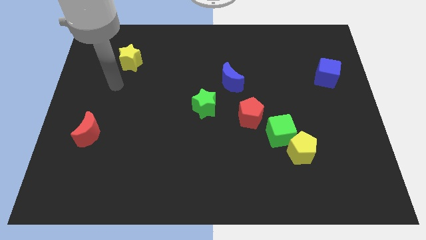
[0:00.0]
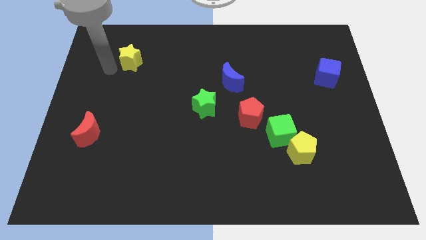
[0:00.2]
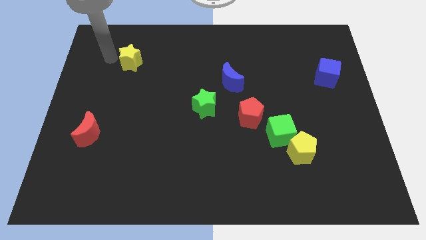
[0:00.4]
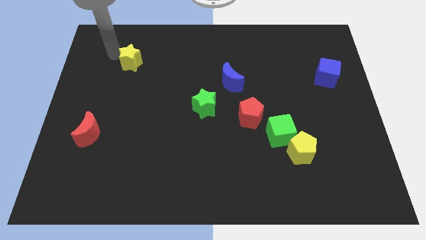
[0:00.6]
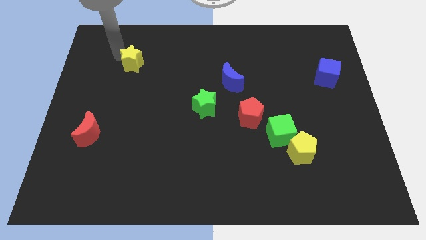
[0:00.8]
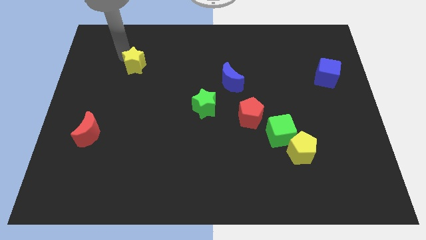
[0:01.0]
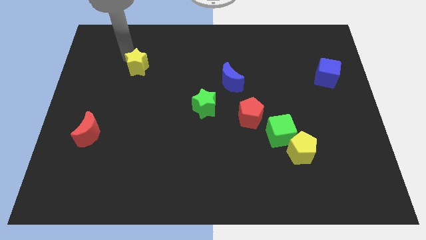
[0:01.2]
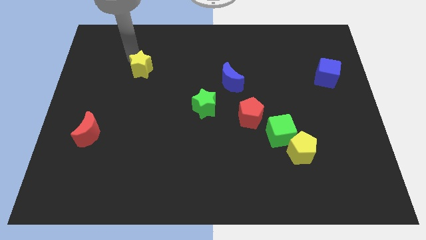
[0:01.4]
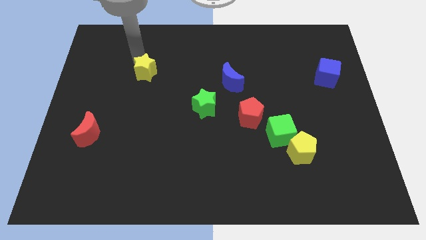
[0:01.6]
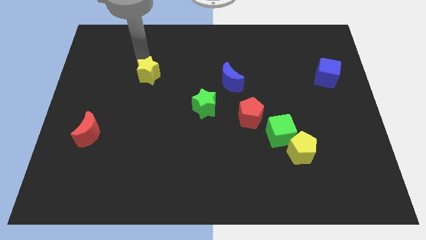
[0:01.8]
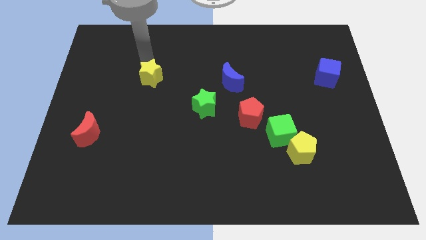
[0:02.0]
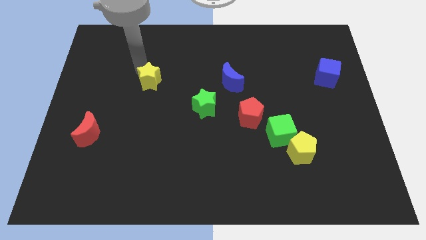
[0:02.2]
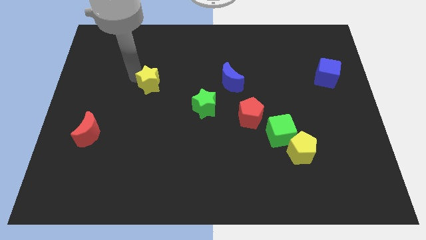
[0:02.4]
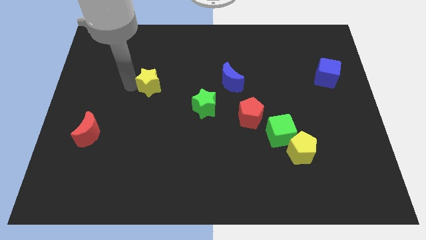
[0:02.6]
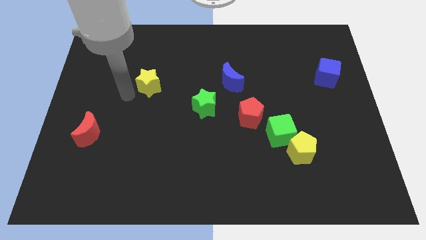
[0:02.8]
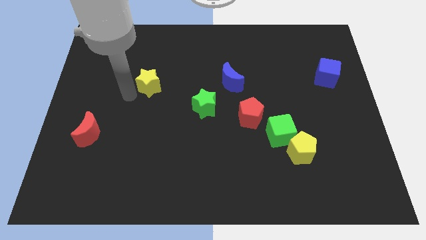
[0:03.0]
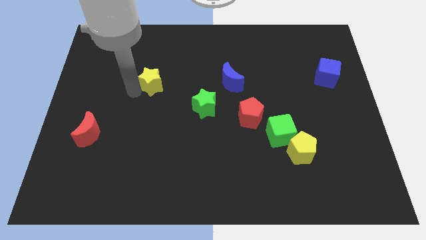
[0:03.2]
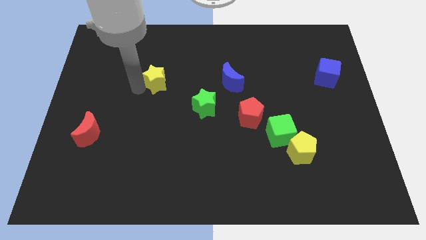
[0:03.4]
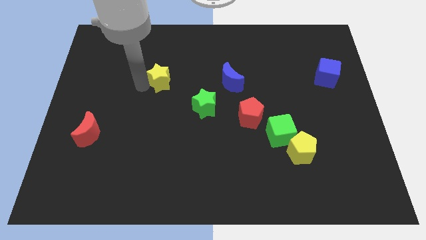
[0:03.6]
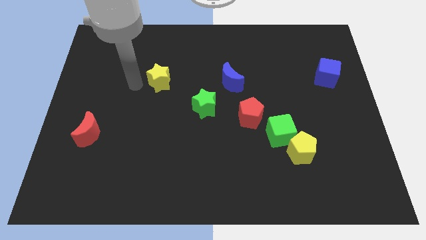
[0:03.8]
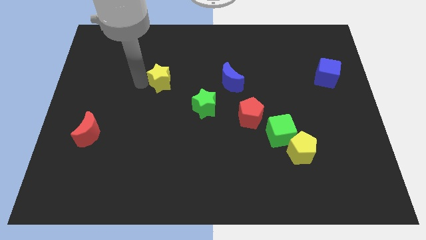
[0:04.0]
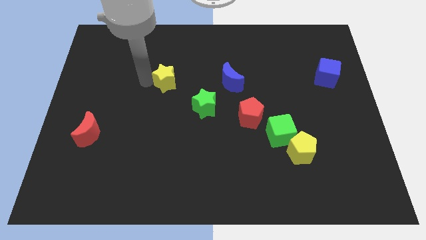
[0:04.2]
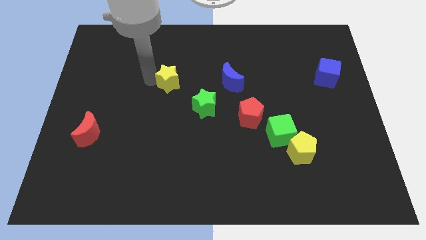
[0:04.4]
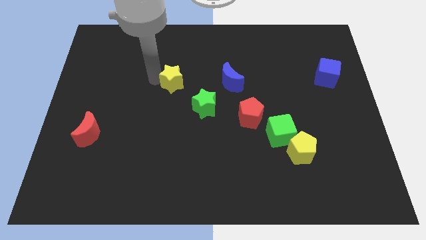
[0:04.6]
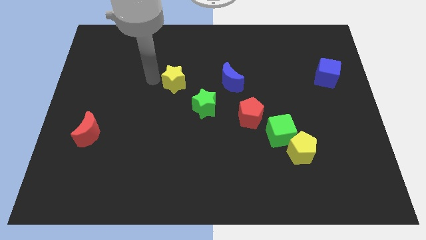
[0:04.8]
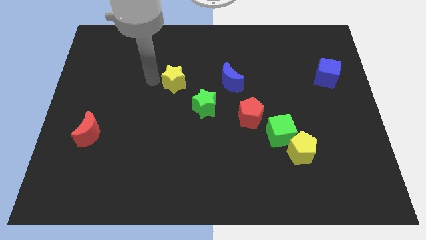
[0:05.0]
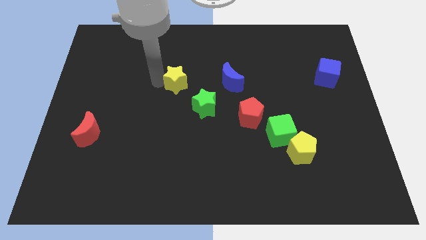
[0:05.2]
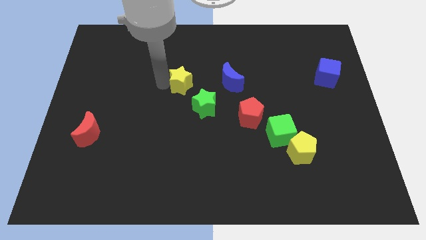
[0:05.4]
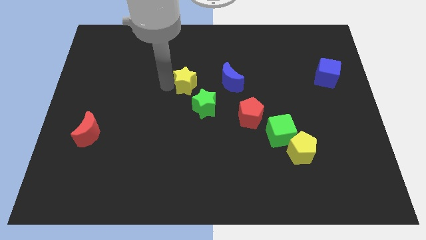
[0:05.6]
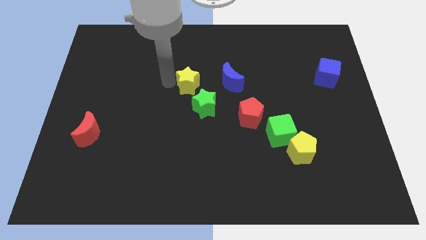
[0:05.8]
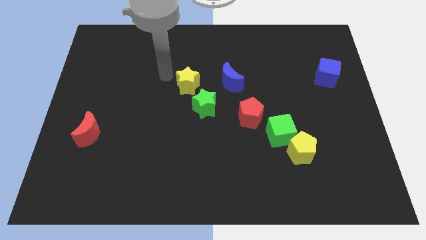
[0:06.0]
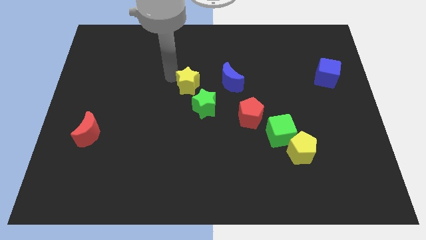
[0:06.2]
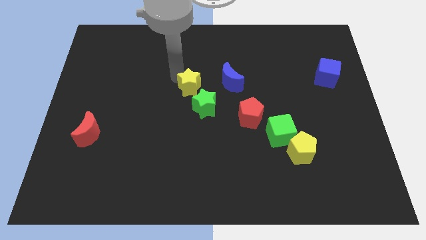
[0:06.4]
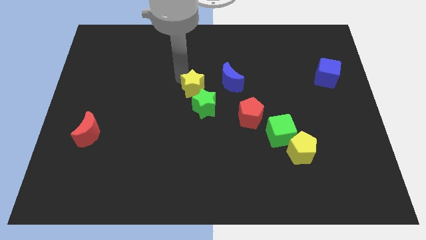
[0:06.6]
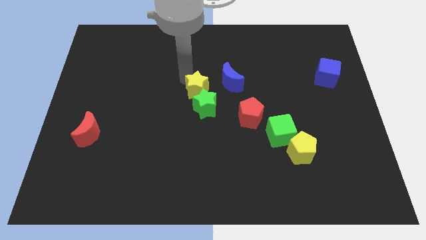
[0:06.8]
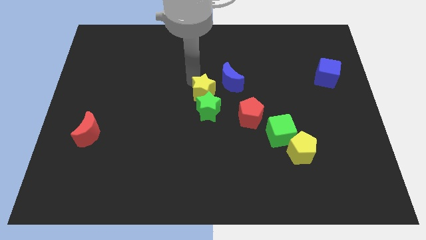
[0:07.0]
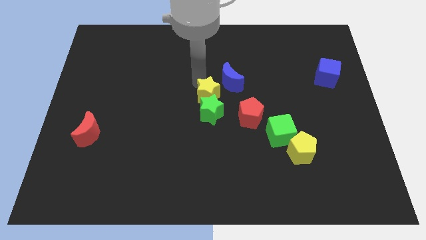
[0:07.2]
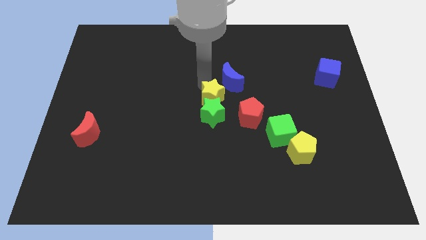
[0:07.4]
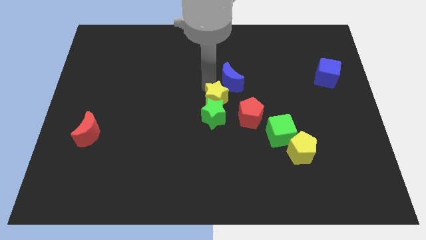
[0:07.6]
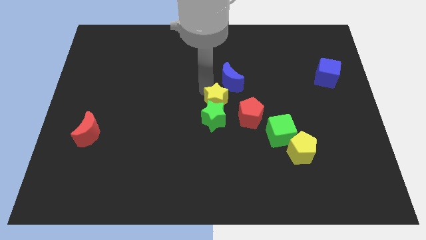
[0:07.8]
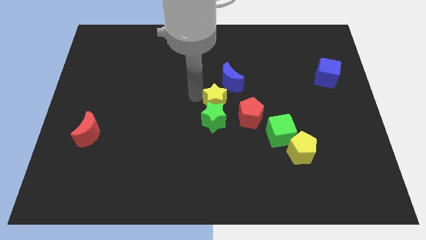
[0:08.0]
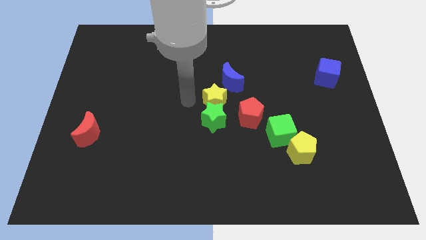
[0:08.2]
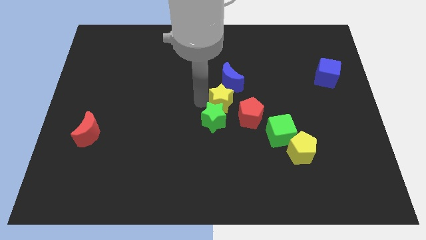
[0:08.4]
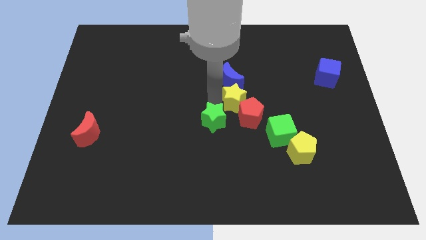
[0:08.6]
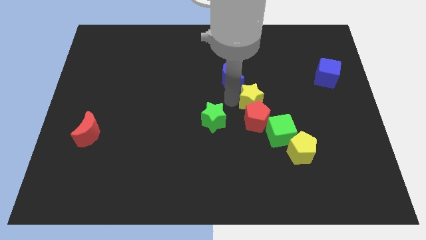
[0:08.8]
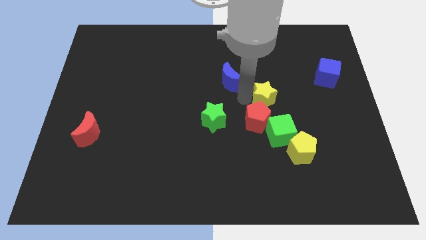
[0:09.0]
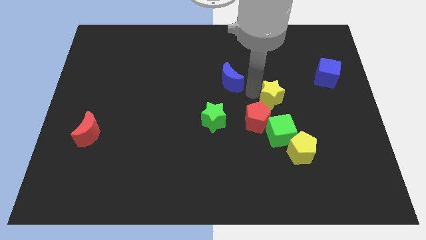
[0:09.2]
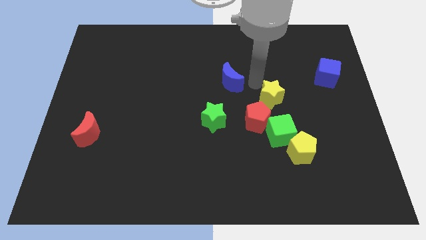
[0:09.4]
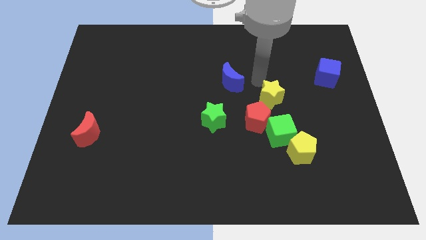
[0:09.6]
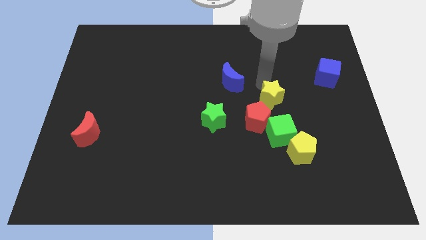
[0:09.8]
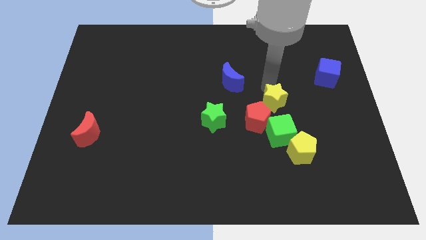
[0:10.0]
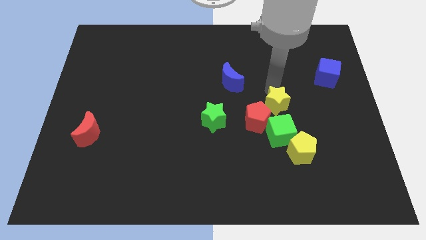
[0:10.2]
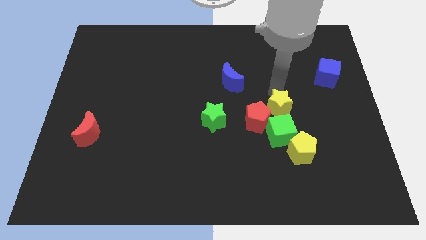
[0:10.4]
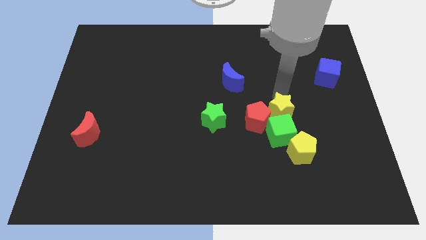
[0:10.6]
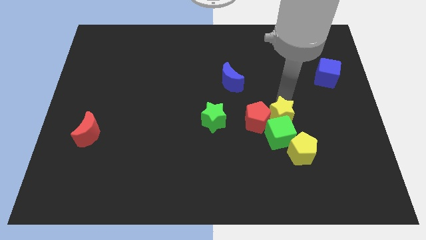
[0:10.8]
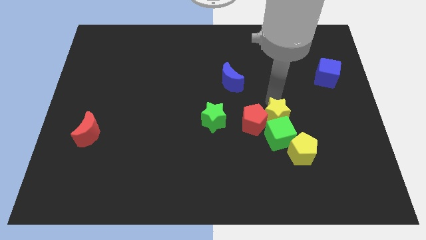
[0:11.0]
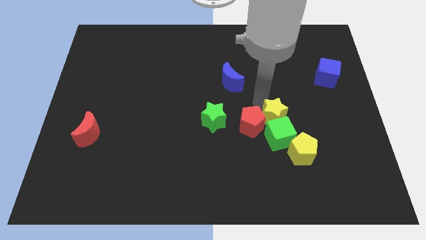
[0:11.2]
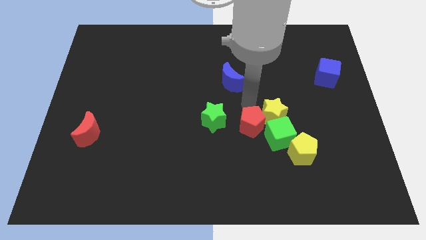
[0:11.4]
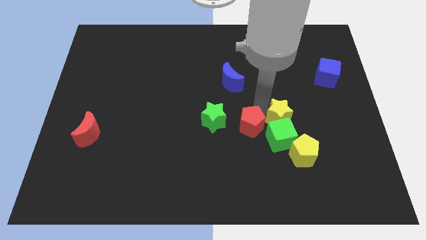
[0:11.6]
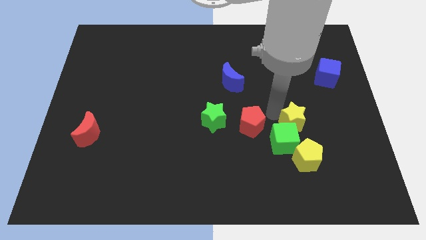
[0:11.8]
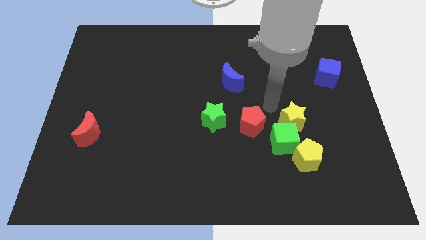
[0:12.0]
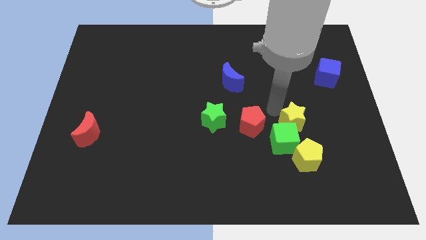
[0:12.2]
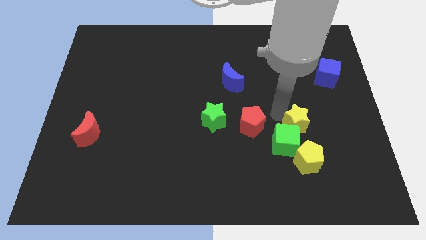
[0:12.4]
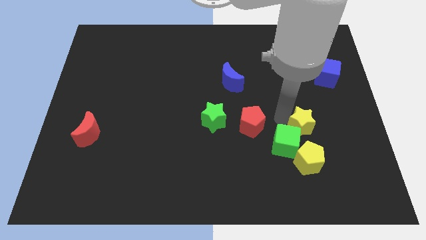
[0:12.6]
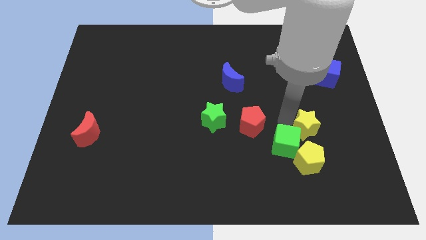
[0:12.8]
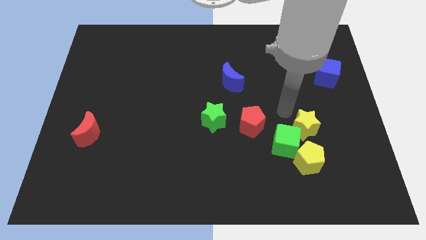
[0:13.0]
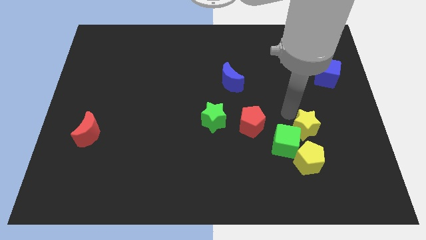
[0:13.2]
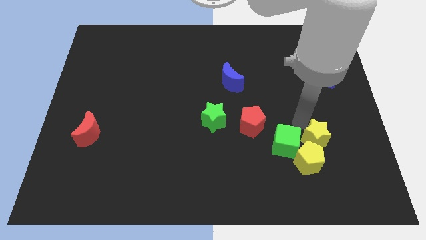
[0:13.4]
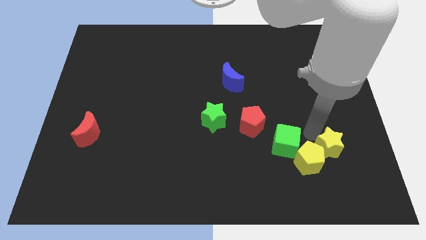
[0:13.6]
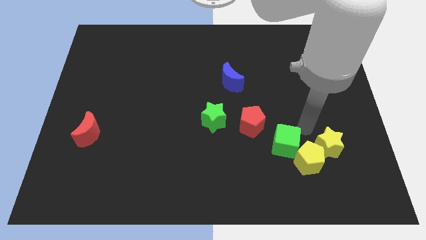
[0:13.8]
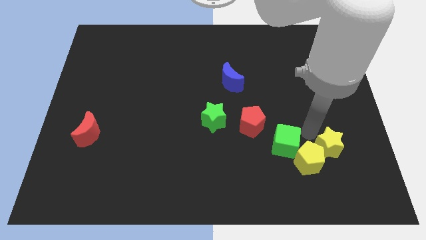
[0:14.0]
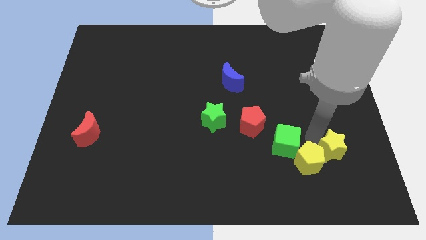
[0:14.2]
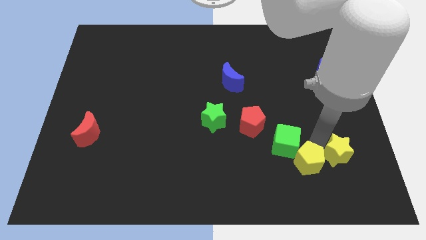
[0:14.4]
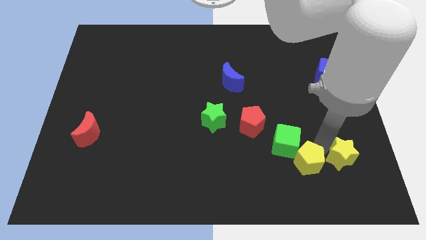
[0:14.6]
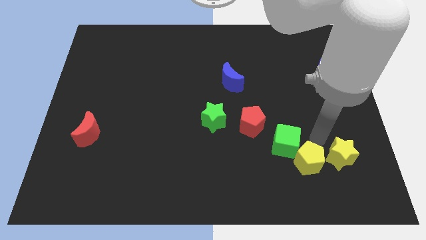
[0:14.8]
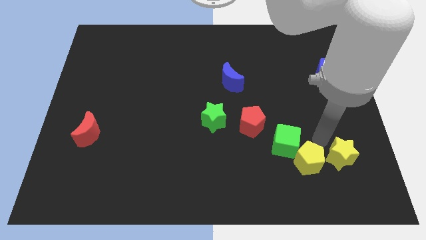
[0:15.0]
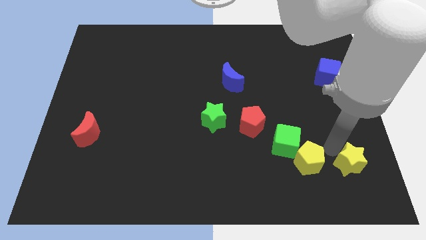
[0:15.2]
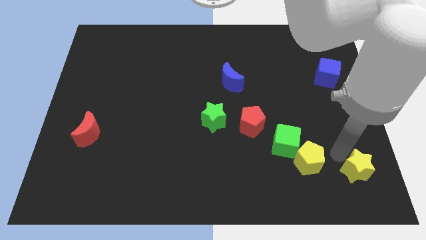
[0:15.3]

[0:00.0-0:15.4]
put the yellow star to the bottom right of the board
